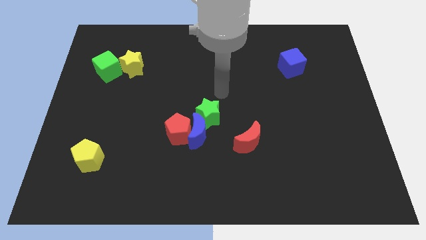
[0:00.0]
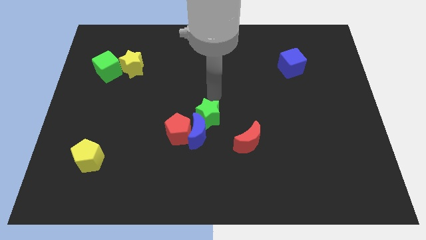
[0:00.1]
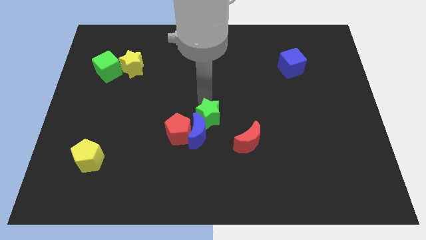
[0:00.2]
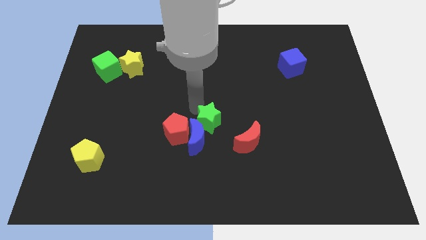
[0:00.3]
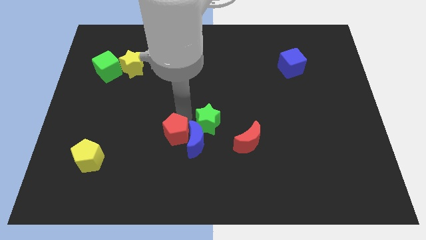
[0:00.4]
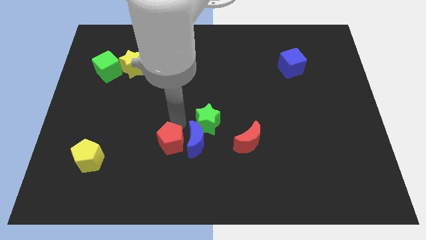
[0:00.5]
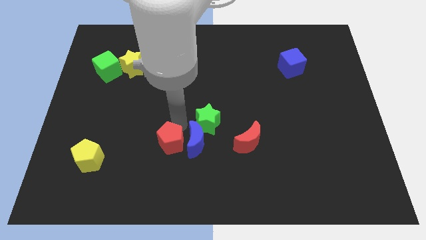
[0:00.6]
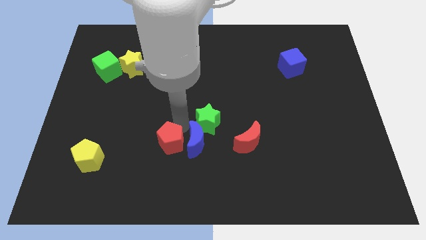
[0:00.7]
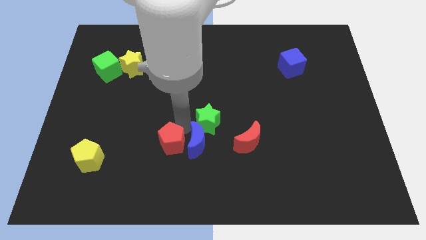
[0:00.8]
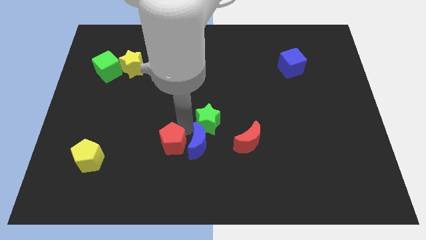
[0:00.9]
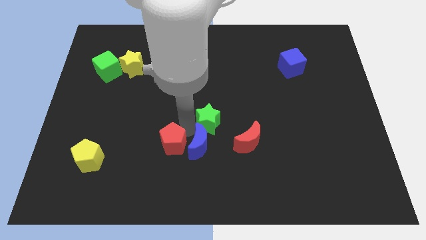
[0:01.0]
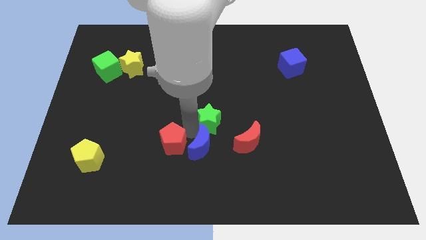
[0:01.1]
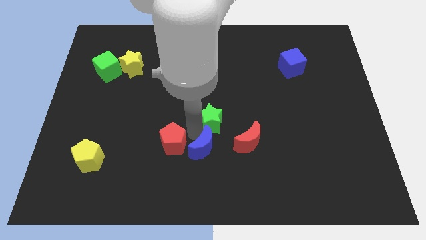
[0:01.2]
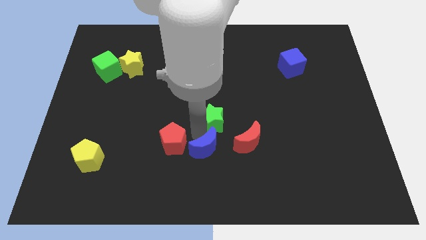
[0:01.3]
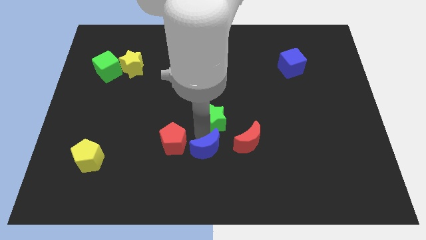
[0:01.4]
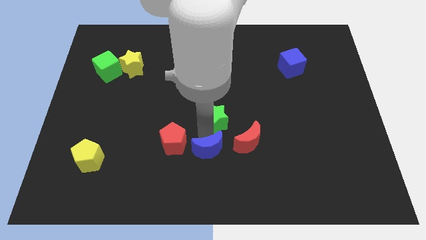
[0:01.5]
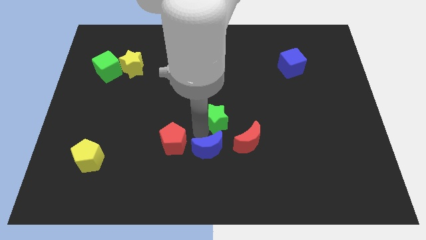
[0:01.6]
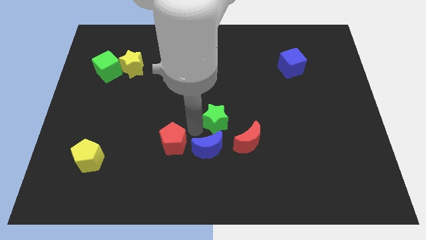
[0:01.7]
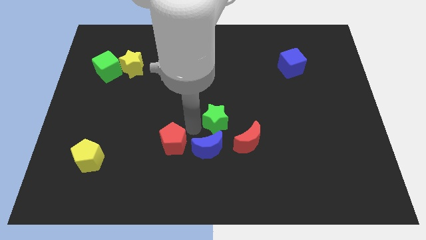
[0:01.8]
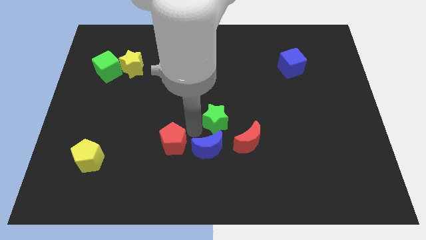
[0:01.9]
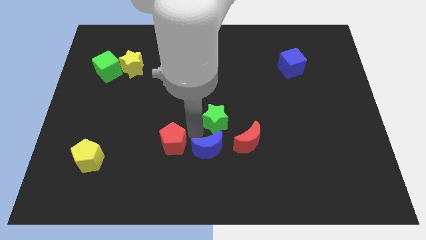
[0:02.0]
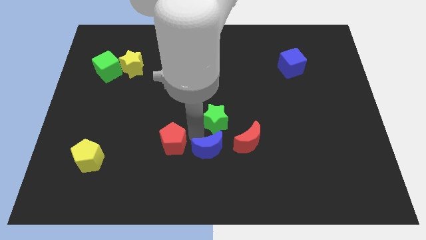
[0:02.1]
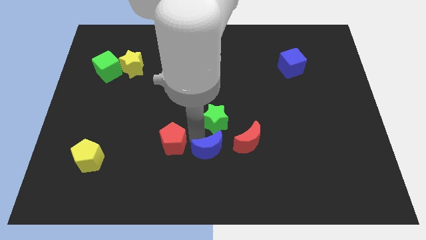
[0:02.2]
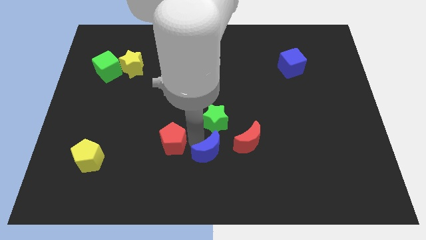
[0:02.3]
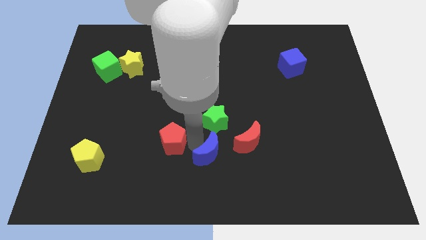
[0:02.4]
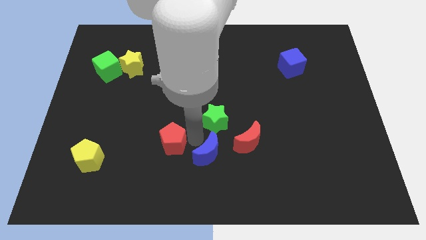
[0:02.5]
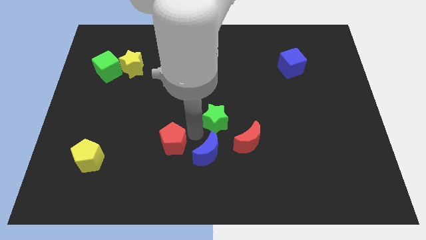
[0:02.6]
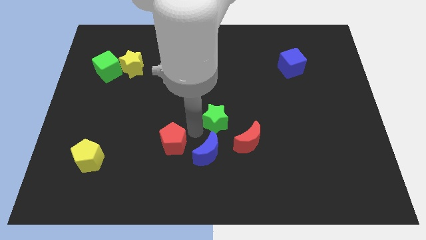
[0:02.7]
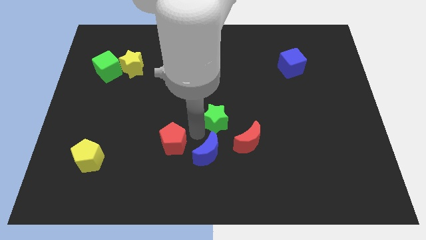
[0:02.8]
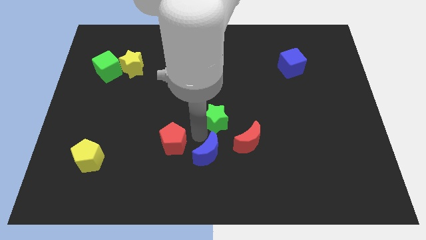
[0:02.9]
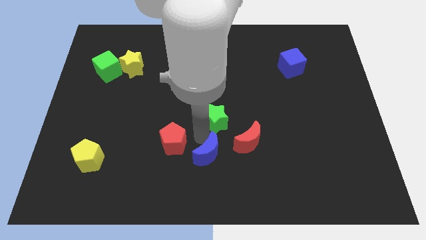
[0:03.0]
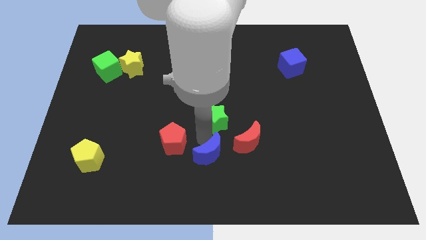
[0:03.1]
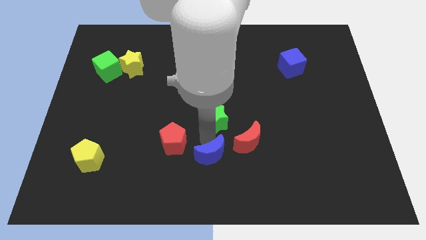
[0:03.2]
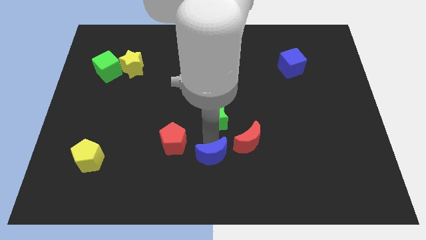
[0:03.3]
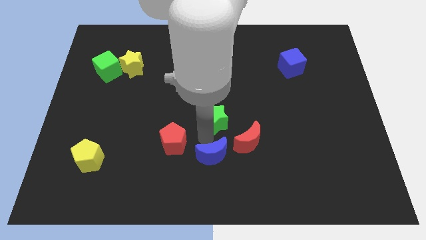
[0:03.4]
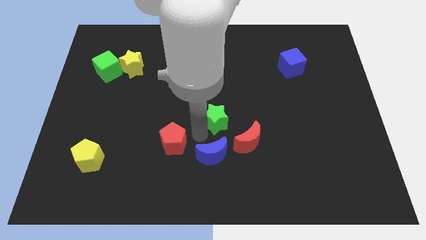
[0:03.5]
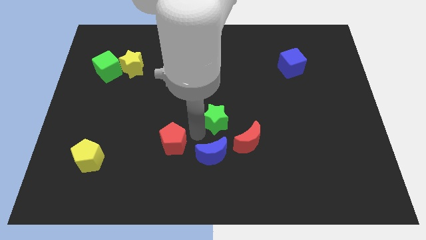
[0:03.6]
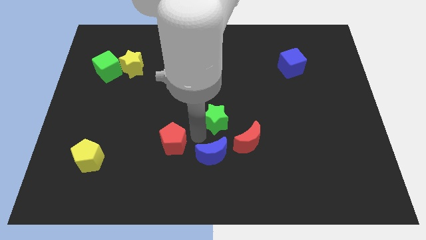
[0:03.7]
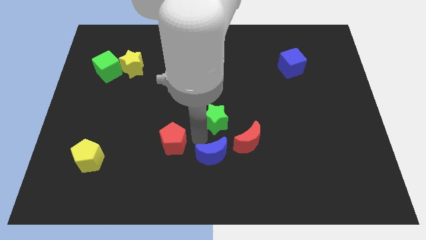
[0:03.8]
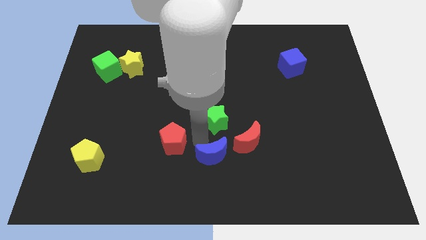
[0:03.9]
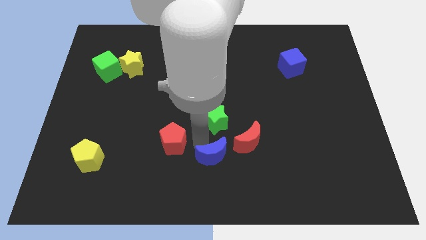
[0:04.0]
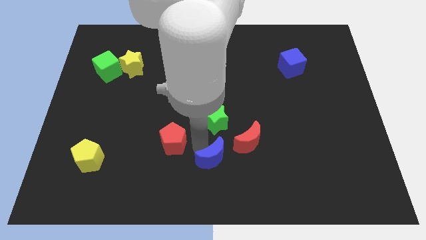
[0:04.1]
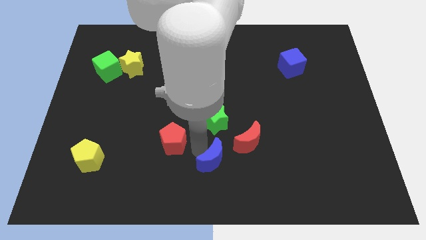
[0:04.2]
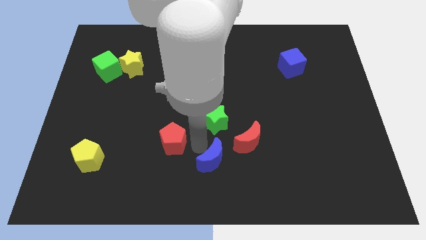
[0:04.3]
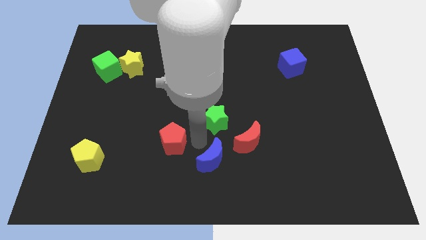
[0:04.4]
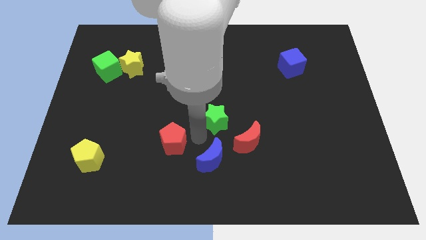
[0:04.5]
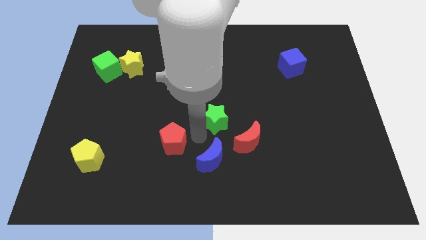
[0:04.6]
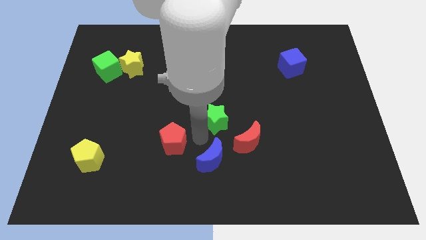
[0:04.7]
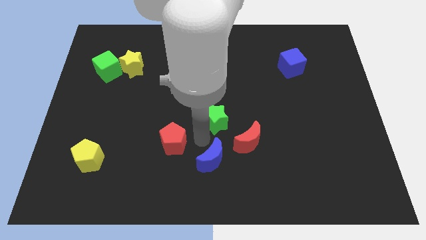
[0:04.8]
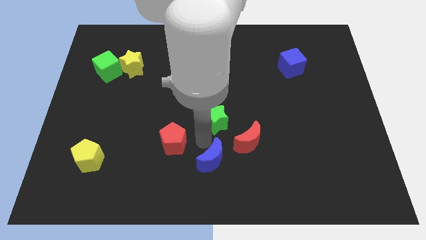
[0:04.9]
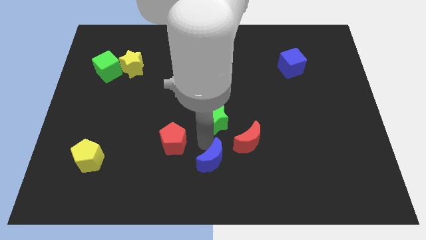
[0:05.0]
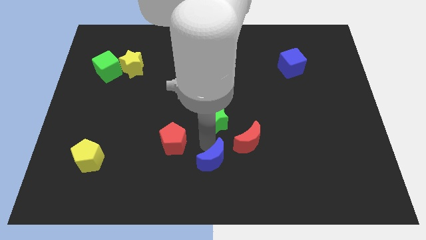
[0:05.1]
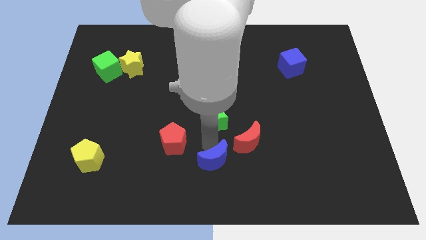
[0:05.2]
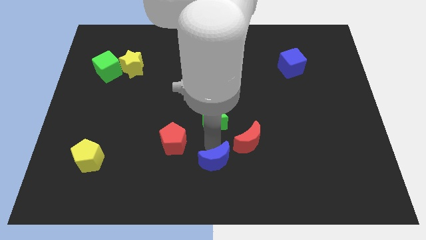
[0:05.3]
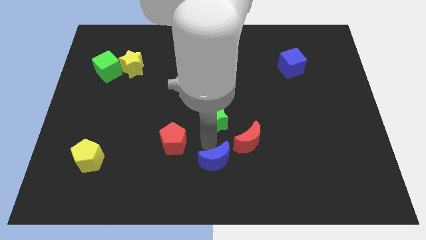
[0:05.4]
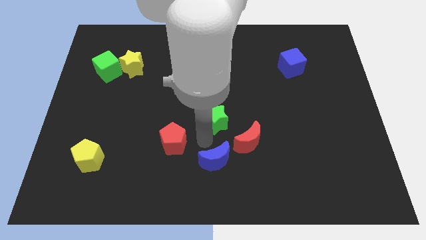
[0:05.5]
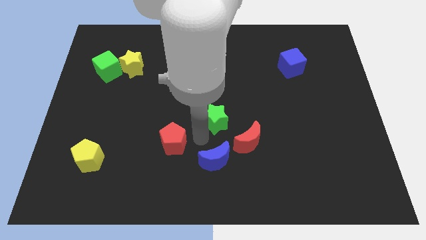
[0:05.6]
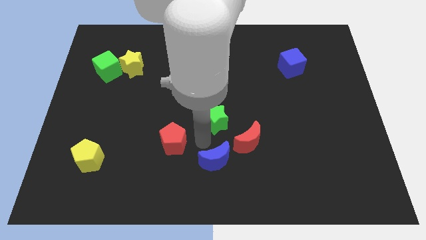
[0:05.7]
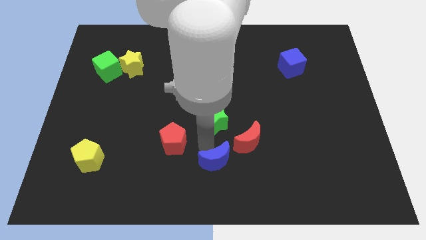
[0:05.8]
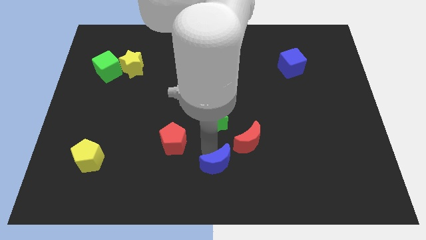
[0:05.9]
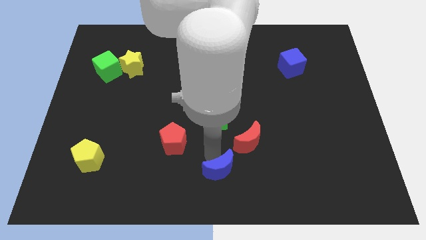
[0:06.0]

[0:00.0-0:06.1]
pull the blue moon apart from the red pentagon and green star

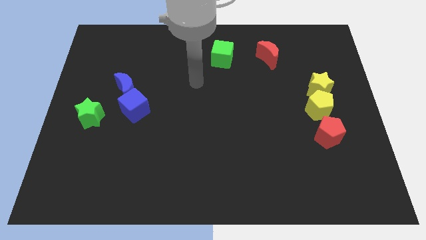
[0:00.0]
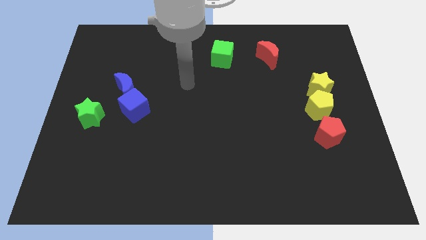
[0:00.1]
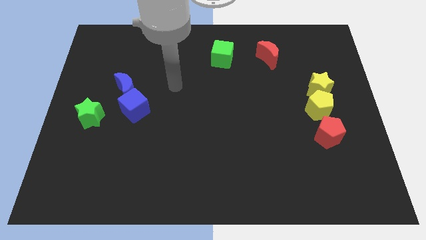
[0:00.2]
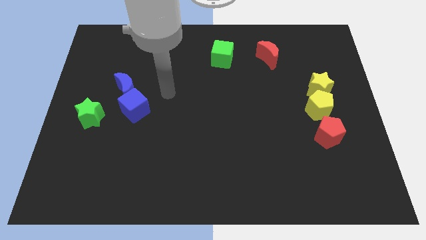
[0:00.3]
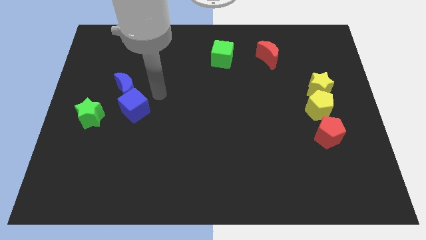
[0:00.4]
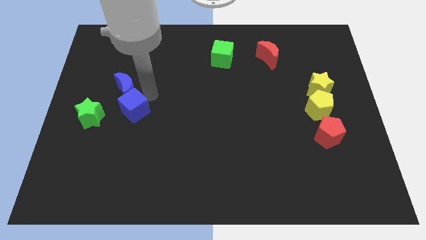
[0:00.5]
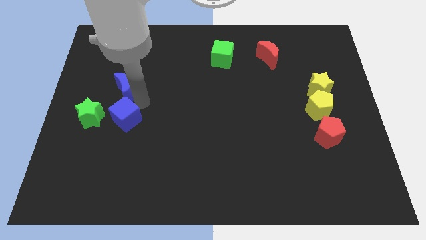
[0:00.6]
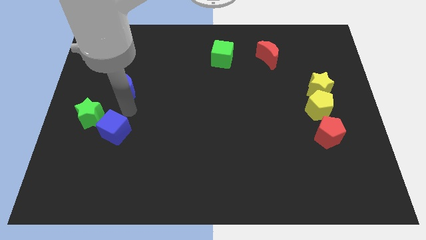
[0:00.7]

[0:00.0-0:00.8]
pull the blue moon apart from the blue cube

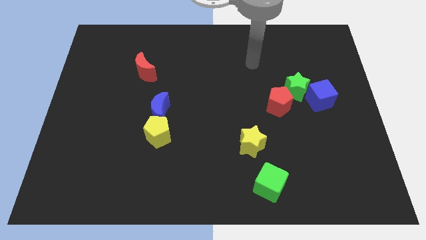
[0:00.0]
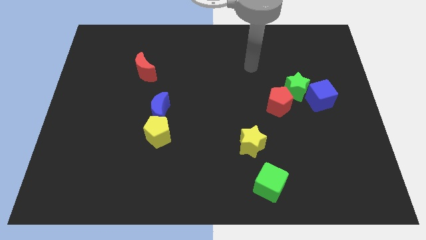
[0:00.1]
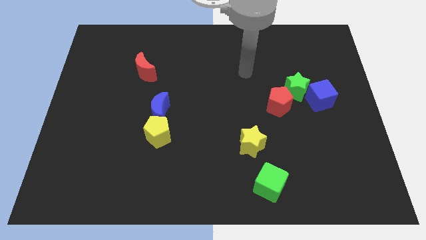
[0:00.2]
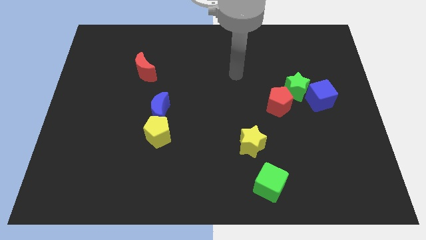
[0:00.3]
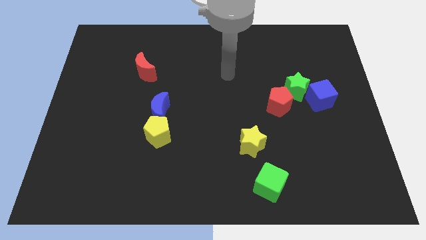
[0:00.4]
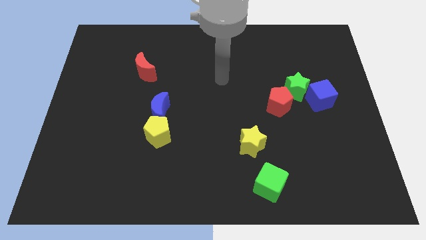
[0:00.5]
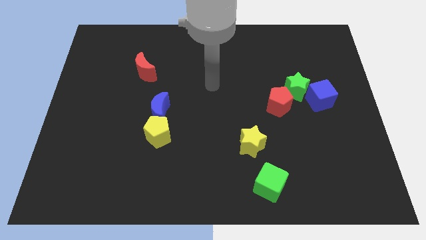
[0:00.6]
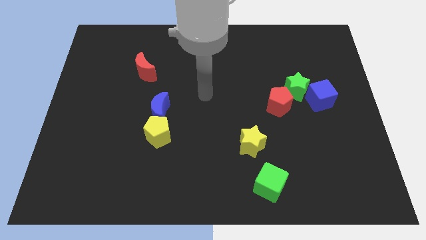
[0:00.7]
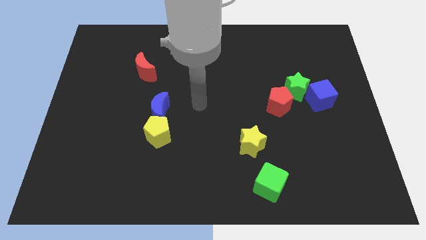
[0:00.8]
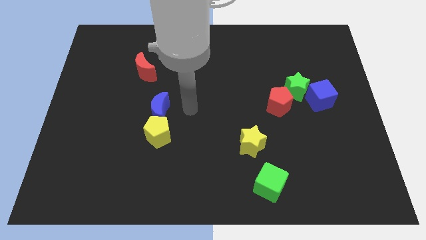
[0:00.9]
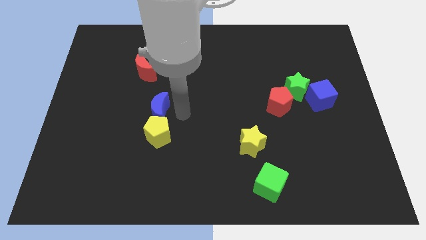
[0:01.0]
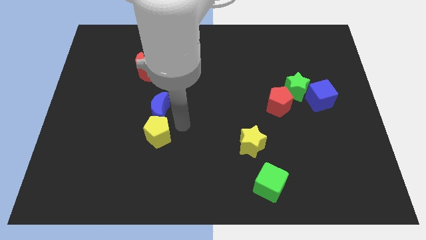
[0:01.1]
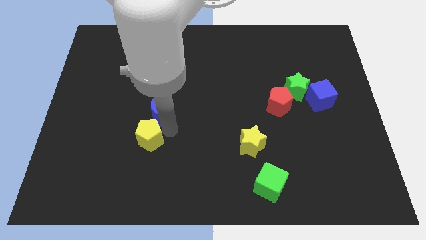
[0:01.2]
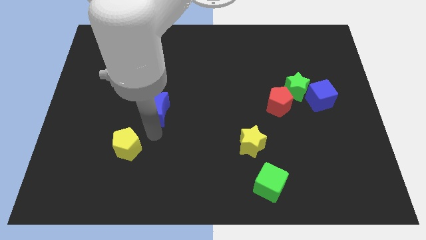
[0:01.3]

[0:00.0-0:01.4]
separate the blue moon from the yellow pentagon

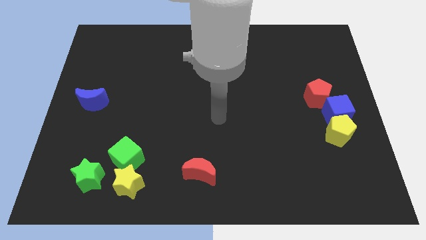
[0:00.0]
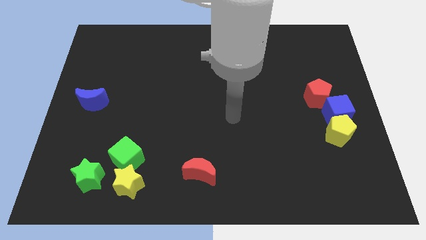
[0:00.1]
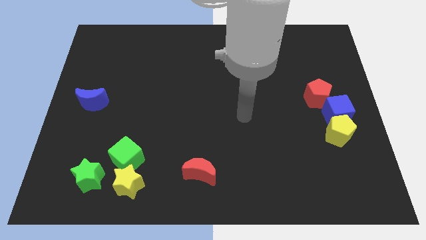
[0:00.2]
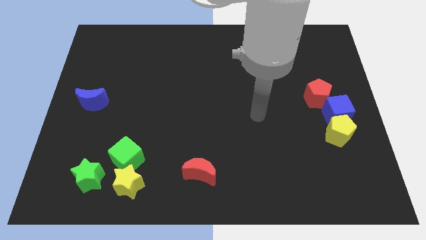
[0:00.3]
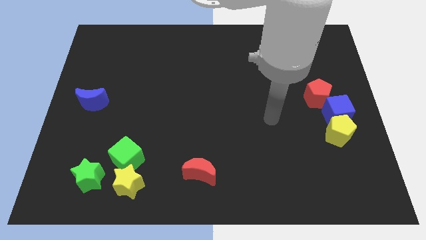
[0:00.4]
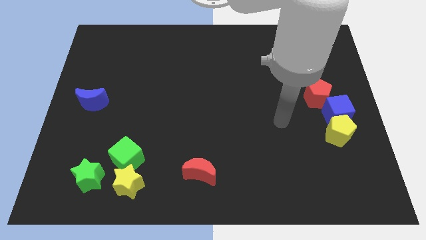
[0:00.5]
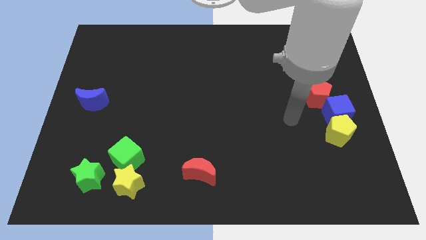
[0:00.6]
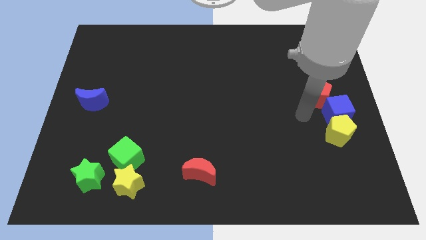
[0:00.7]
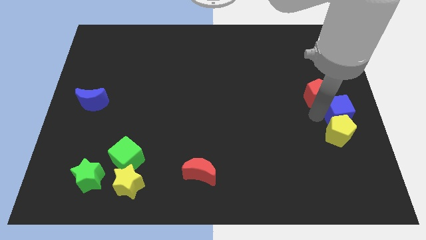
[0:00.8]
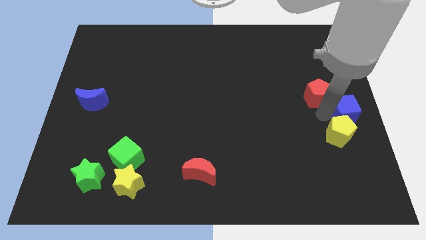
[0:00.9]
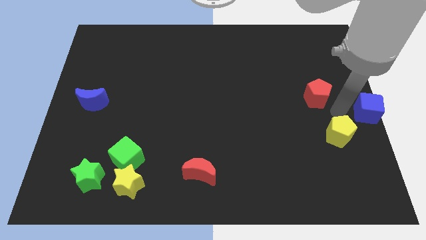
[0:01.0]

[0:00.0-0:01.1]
separate the yellow pentagon from the blue cube
